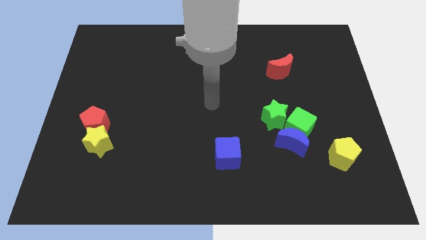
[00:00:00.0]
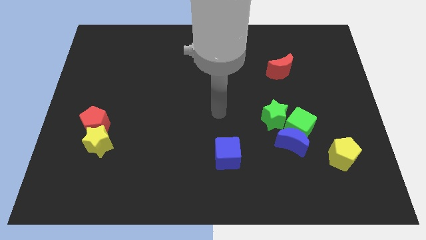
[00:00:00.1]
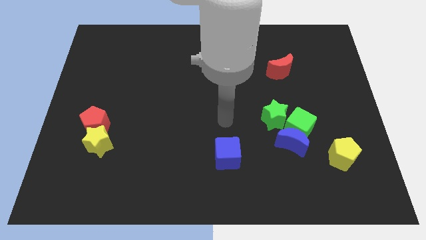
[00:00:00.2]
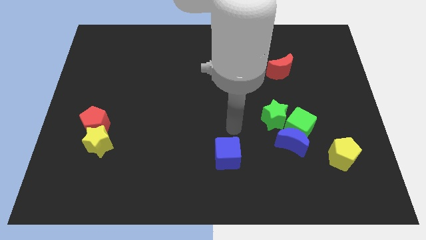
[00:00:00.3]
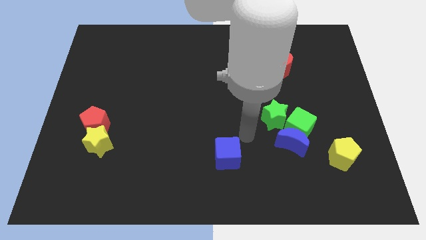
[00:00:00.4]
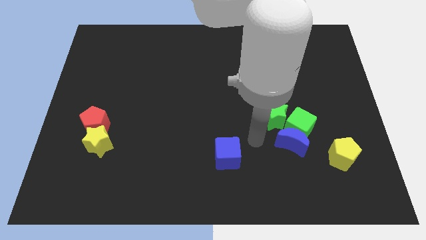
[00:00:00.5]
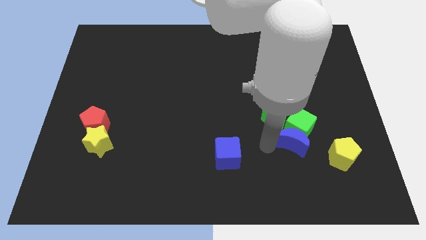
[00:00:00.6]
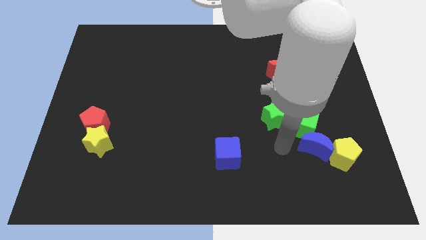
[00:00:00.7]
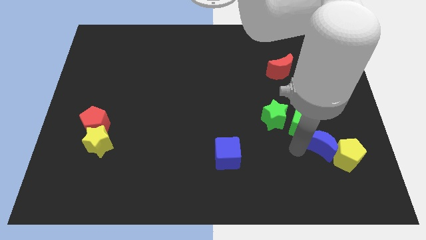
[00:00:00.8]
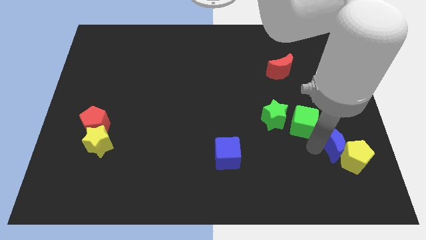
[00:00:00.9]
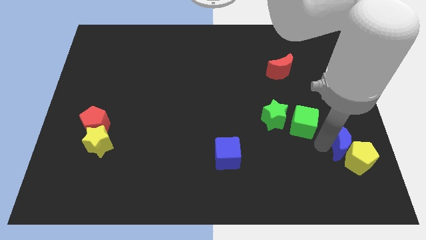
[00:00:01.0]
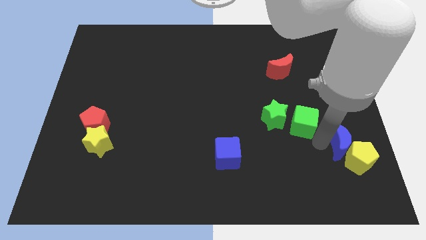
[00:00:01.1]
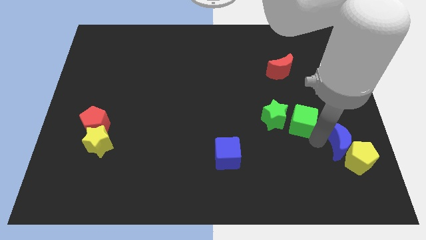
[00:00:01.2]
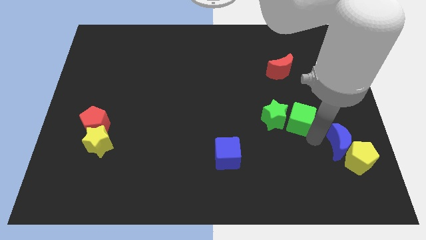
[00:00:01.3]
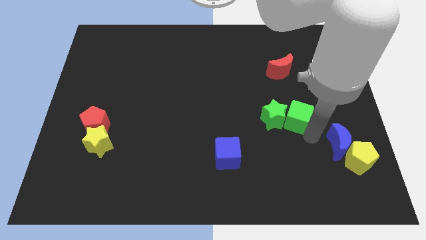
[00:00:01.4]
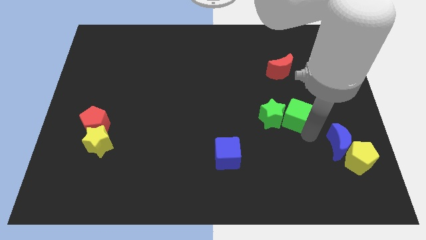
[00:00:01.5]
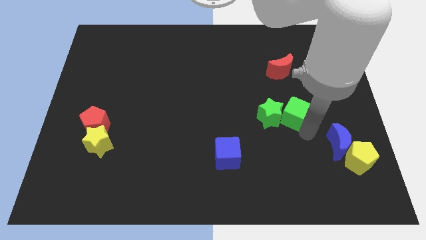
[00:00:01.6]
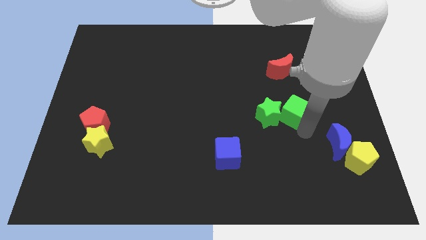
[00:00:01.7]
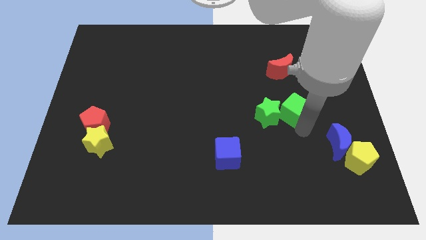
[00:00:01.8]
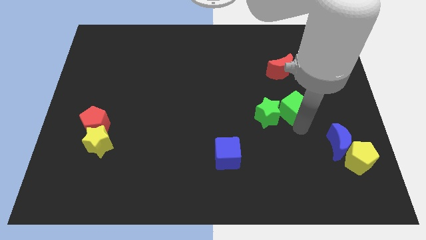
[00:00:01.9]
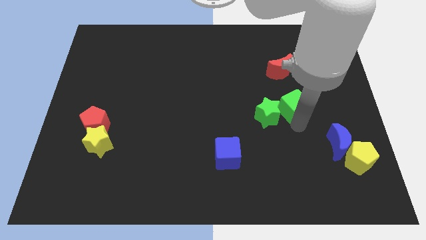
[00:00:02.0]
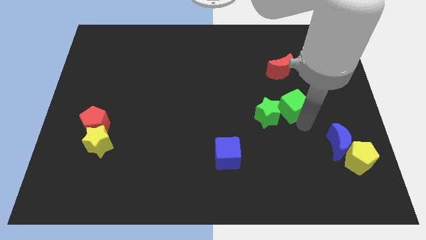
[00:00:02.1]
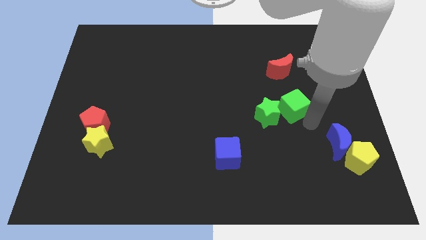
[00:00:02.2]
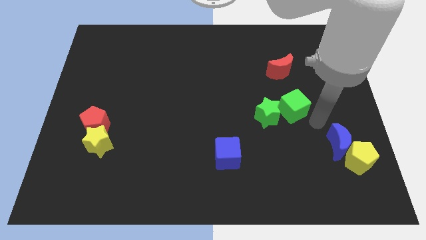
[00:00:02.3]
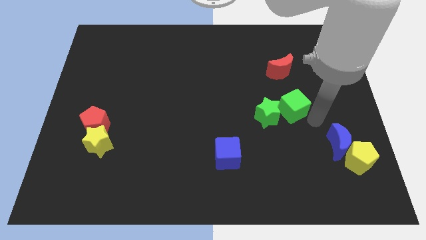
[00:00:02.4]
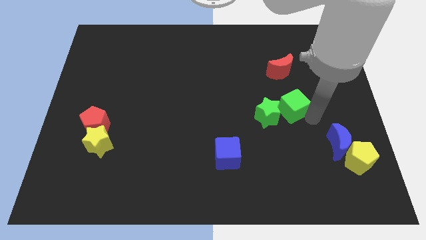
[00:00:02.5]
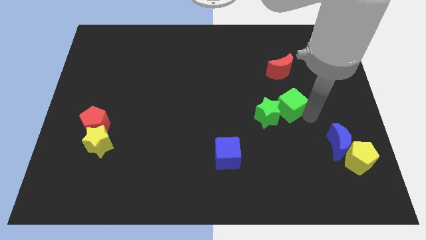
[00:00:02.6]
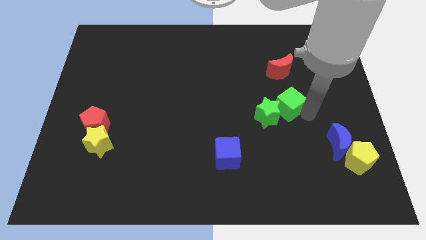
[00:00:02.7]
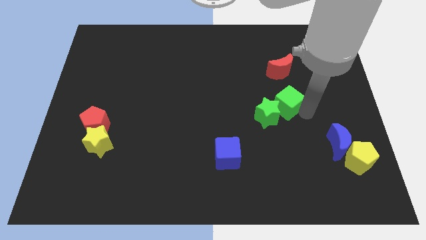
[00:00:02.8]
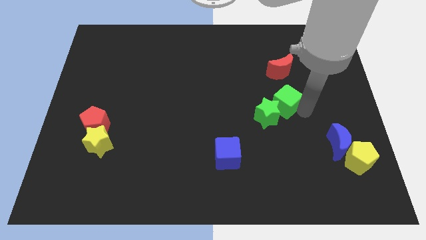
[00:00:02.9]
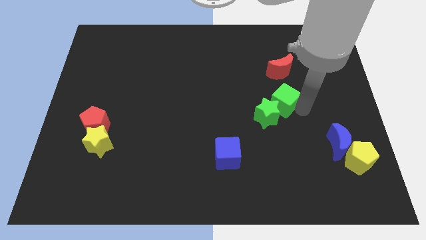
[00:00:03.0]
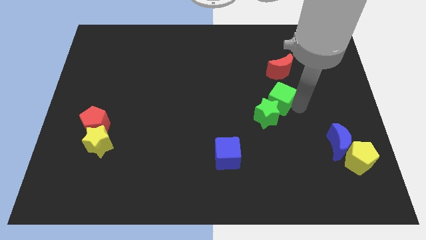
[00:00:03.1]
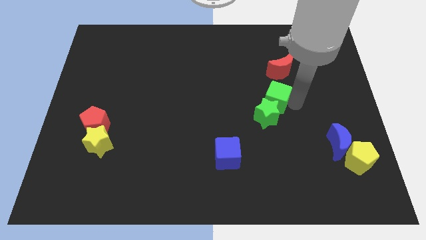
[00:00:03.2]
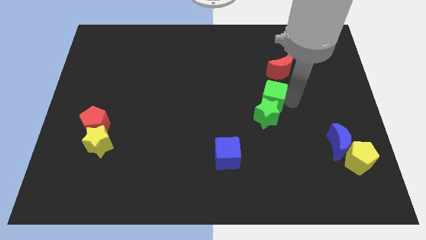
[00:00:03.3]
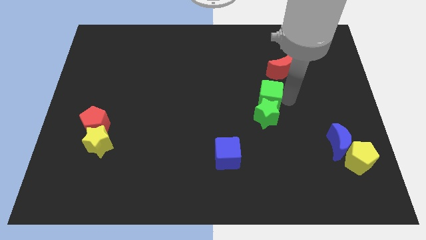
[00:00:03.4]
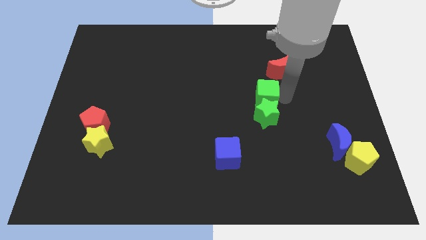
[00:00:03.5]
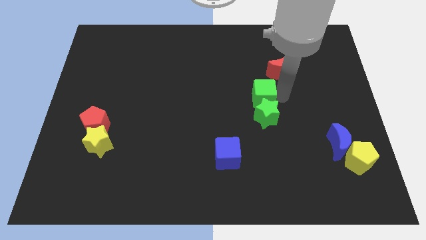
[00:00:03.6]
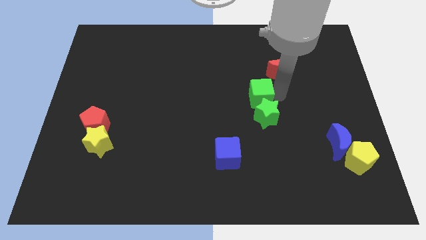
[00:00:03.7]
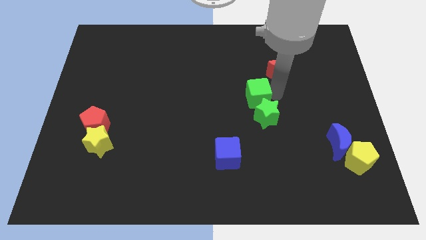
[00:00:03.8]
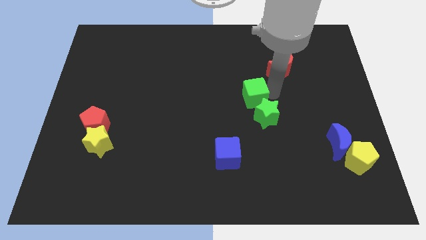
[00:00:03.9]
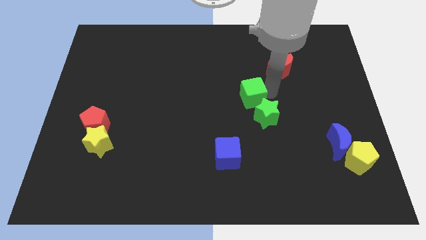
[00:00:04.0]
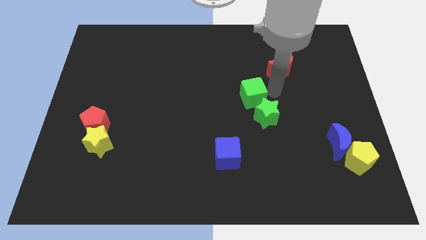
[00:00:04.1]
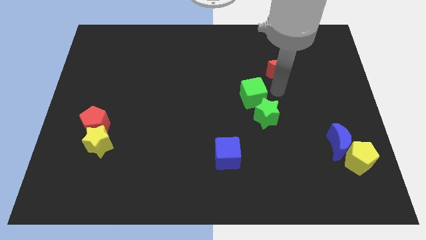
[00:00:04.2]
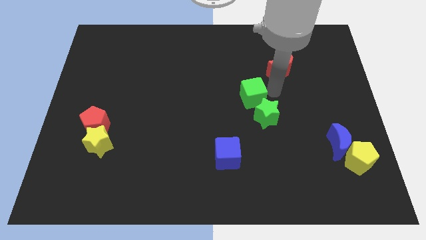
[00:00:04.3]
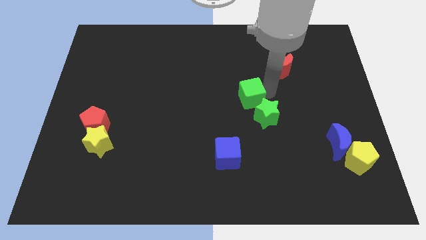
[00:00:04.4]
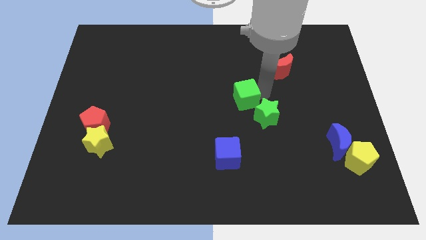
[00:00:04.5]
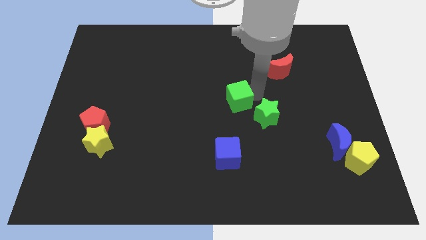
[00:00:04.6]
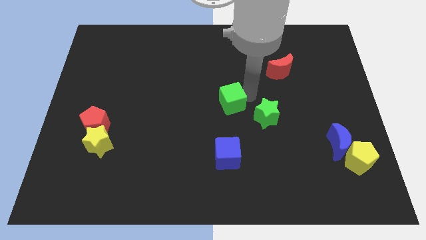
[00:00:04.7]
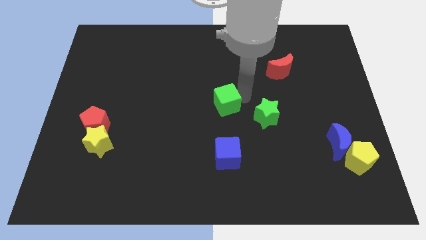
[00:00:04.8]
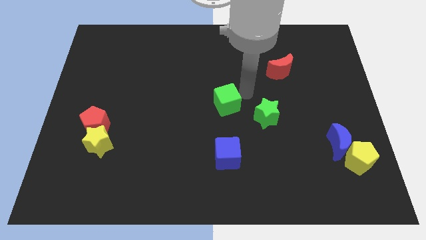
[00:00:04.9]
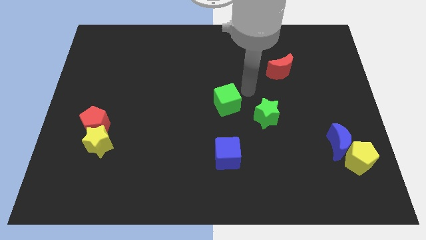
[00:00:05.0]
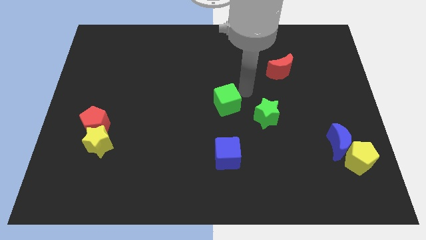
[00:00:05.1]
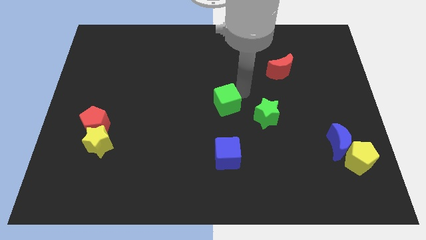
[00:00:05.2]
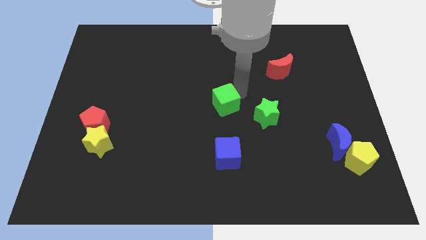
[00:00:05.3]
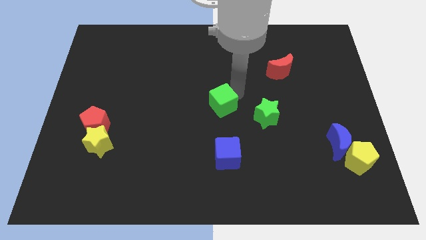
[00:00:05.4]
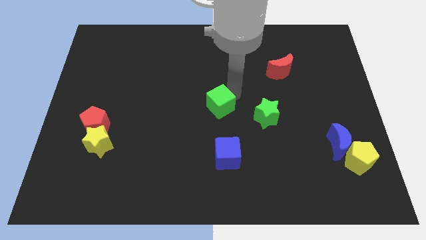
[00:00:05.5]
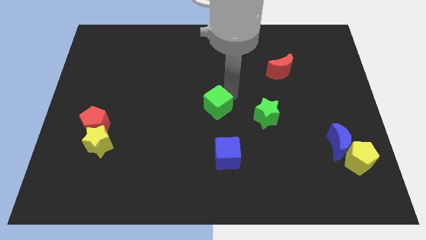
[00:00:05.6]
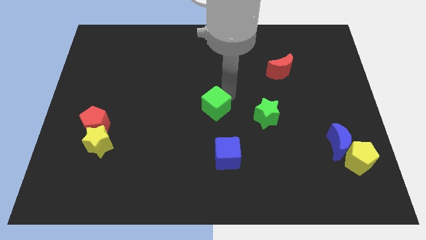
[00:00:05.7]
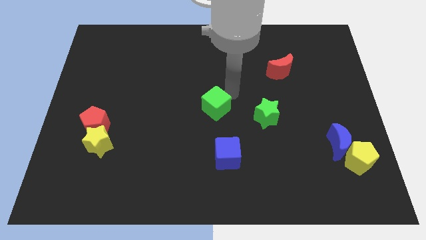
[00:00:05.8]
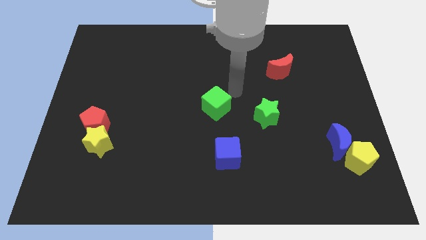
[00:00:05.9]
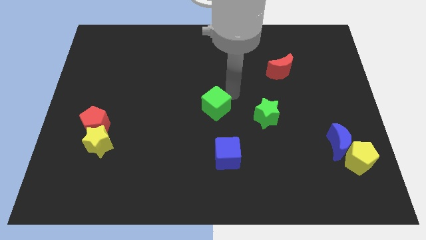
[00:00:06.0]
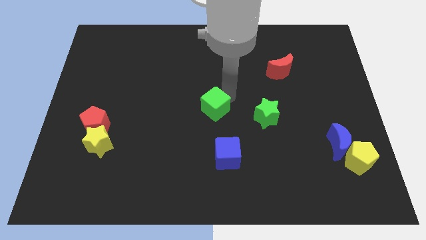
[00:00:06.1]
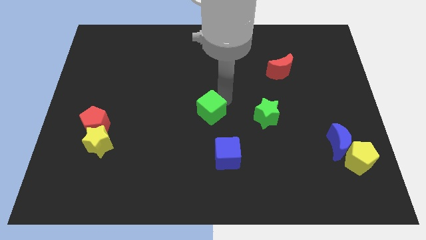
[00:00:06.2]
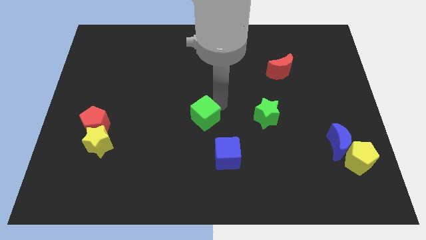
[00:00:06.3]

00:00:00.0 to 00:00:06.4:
move the green cube to the left

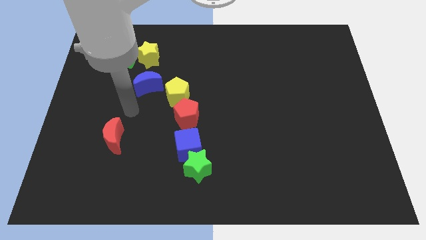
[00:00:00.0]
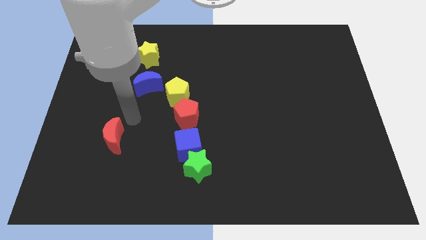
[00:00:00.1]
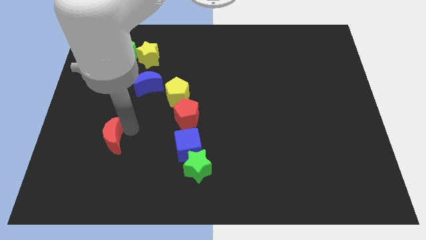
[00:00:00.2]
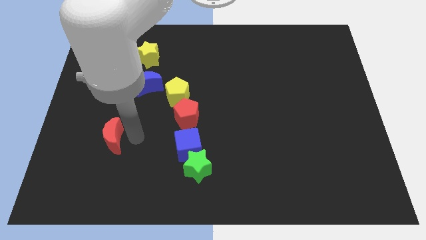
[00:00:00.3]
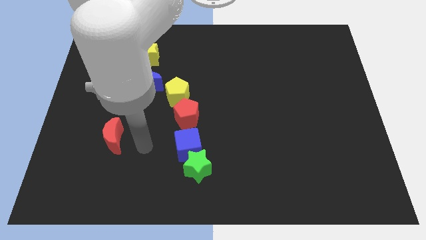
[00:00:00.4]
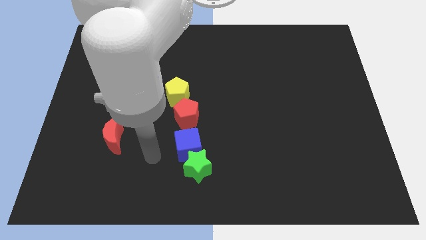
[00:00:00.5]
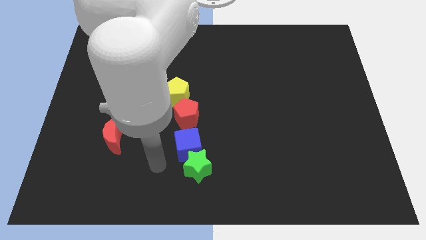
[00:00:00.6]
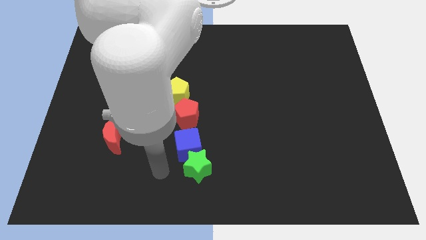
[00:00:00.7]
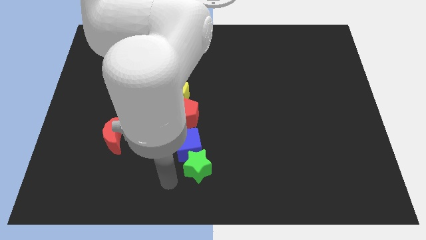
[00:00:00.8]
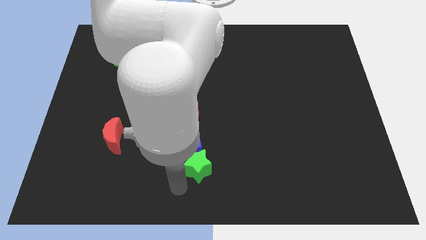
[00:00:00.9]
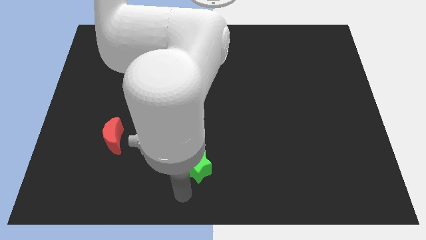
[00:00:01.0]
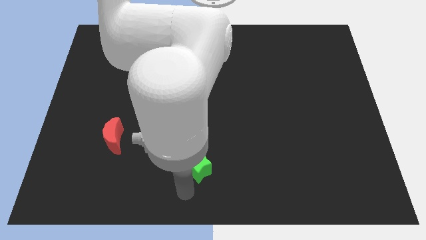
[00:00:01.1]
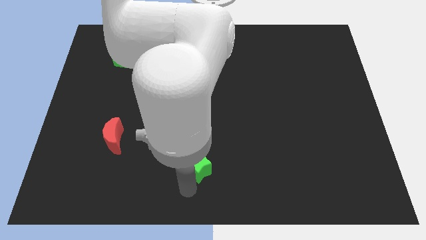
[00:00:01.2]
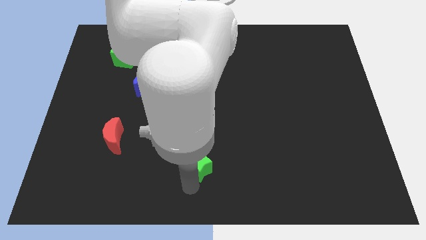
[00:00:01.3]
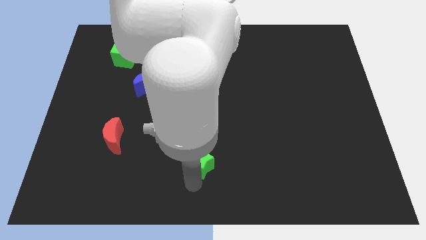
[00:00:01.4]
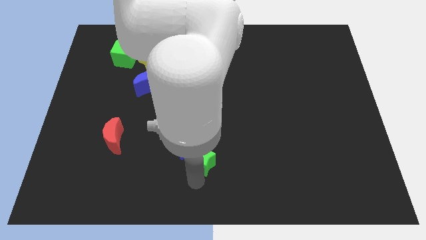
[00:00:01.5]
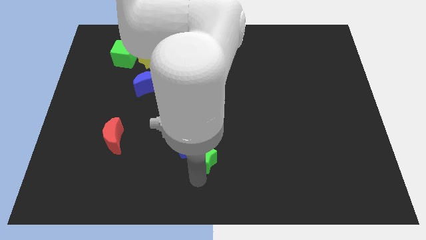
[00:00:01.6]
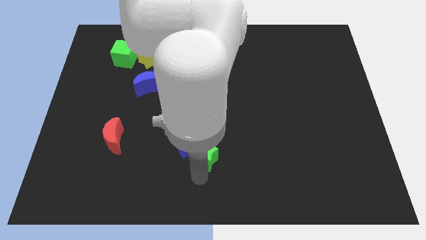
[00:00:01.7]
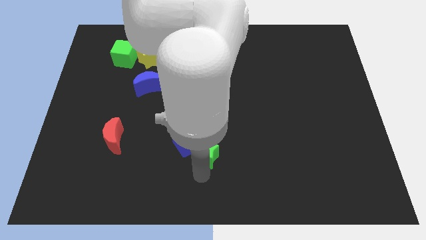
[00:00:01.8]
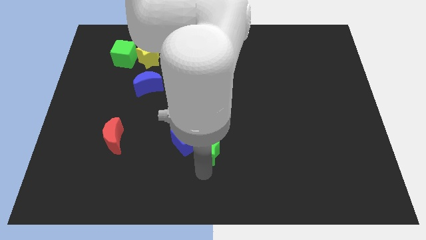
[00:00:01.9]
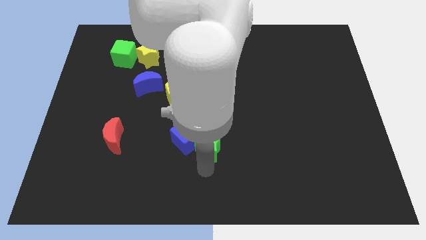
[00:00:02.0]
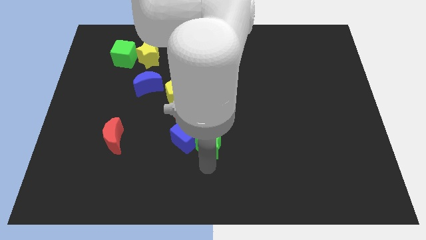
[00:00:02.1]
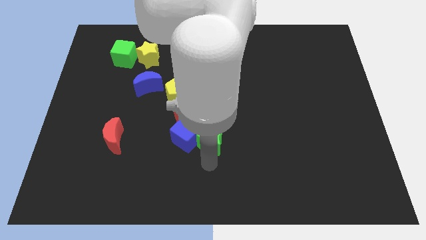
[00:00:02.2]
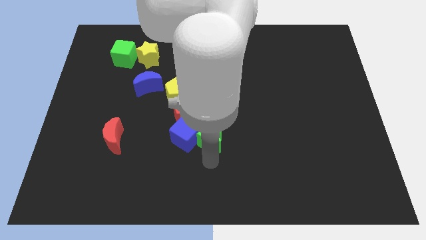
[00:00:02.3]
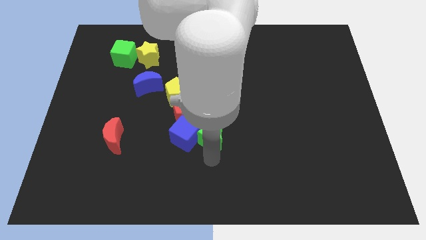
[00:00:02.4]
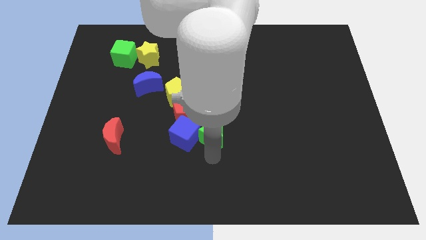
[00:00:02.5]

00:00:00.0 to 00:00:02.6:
slightly push the green star upwards
